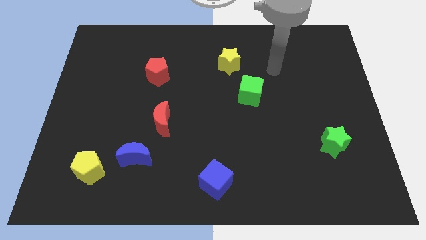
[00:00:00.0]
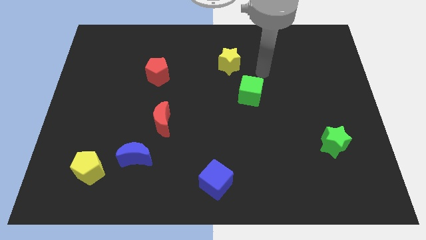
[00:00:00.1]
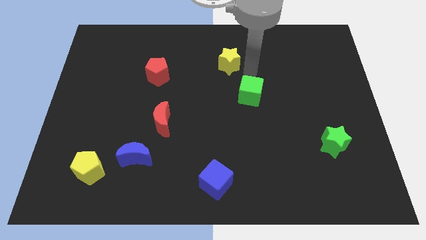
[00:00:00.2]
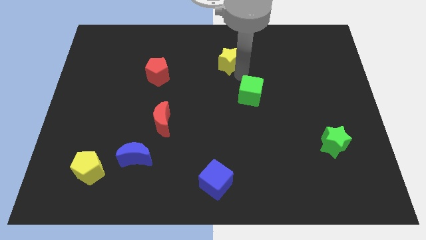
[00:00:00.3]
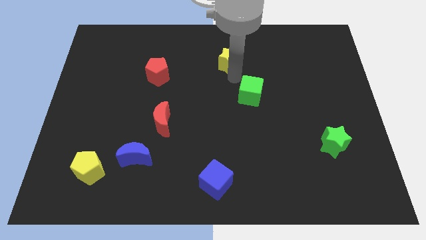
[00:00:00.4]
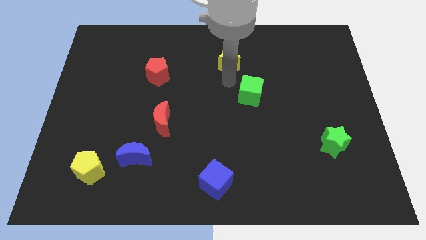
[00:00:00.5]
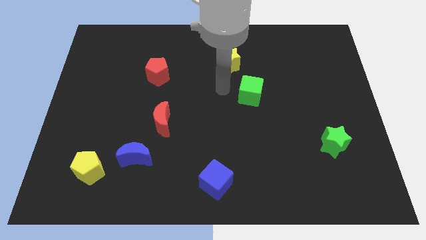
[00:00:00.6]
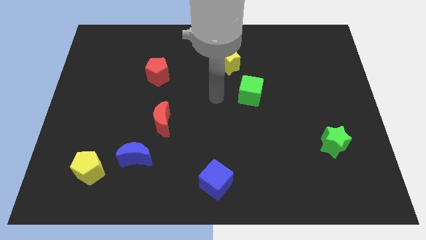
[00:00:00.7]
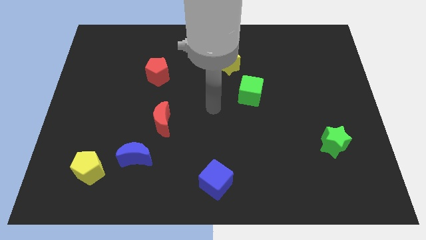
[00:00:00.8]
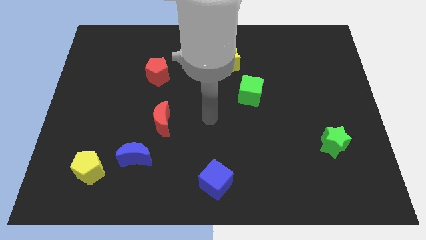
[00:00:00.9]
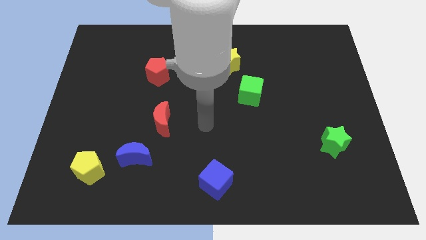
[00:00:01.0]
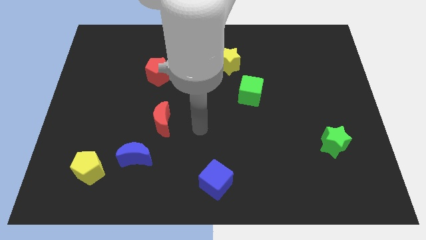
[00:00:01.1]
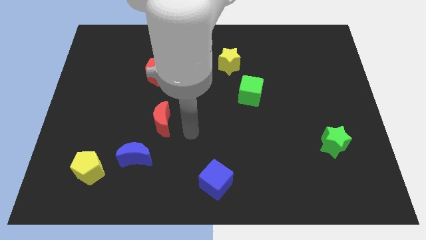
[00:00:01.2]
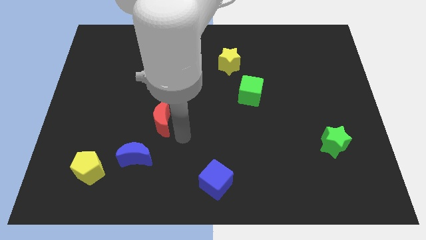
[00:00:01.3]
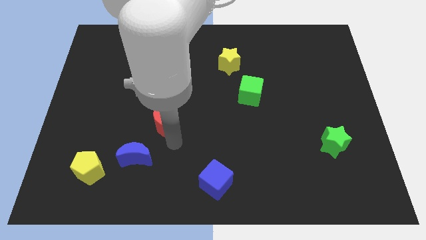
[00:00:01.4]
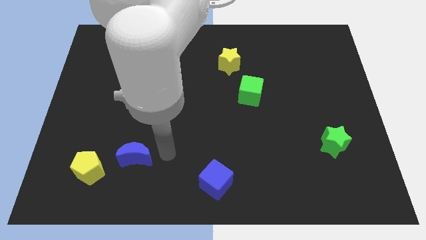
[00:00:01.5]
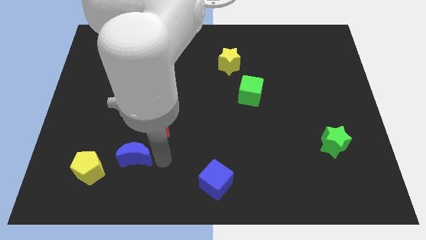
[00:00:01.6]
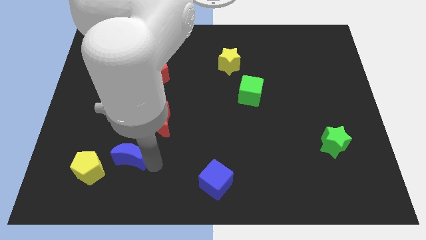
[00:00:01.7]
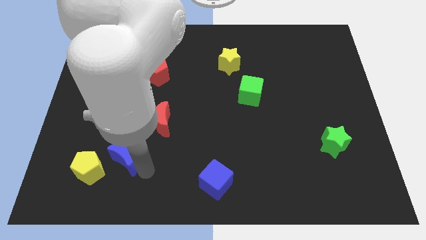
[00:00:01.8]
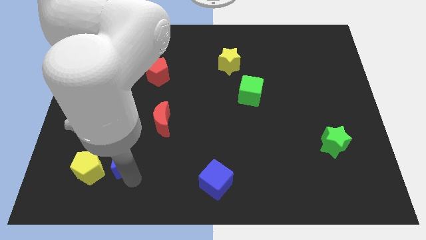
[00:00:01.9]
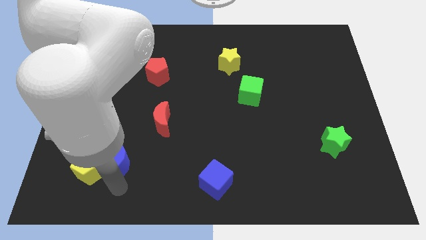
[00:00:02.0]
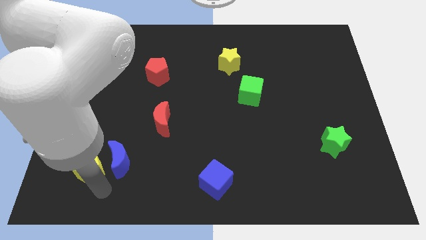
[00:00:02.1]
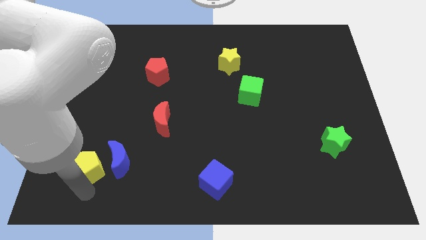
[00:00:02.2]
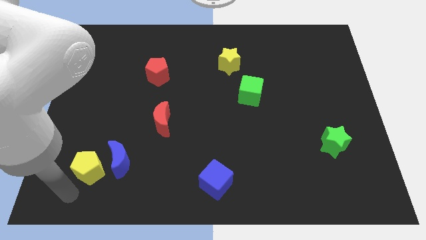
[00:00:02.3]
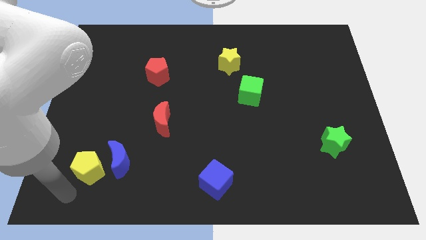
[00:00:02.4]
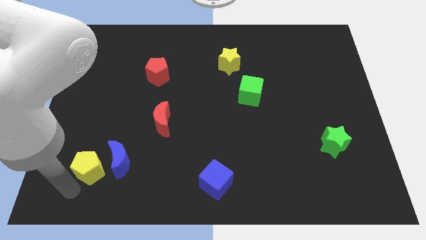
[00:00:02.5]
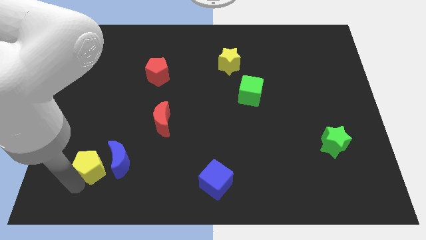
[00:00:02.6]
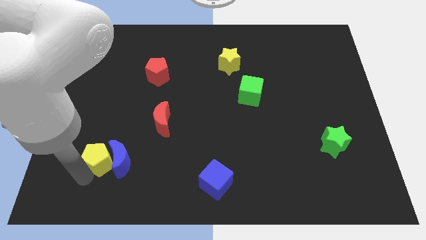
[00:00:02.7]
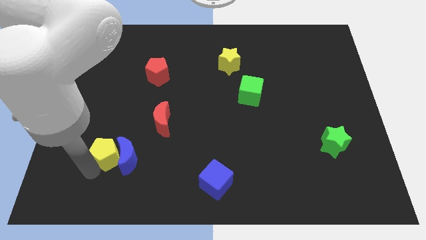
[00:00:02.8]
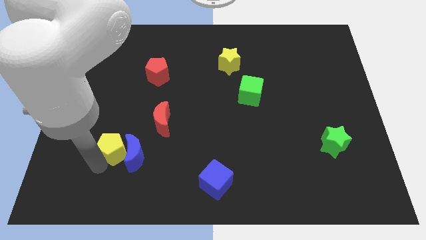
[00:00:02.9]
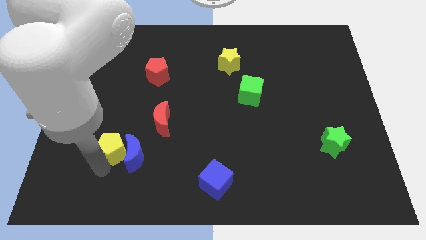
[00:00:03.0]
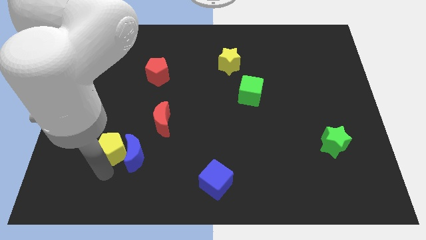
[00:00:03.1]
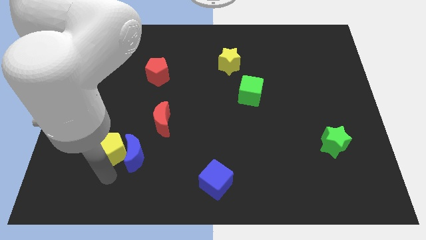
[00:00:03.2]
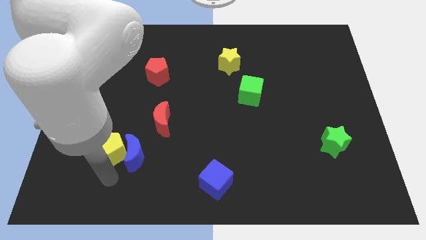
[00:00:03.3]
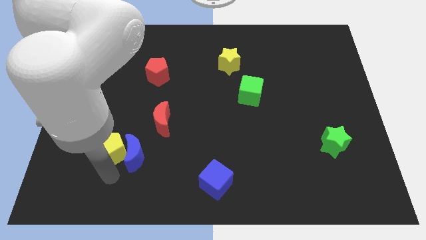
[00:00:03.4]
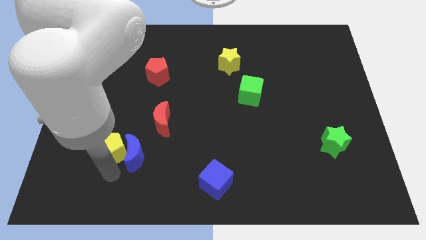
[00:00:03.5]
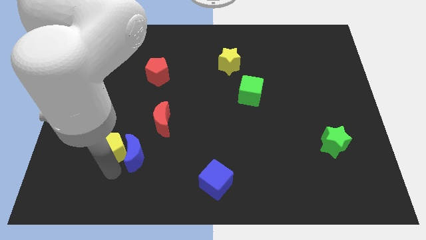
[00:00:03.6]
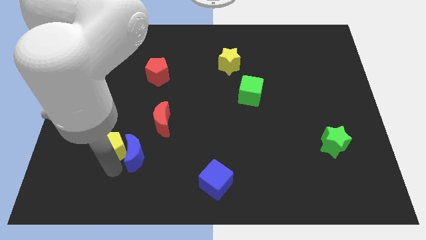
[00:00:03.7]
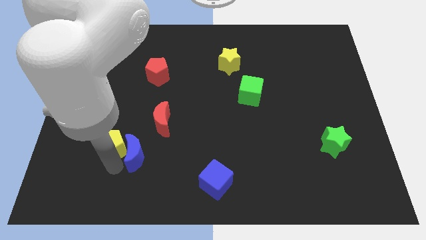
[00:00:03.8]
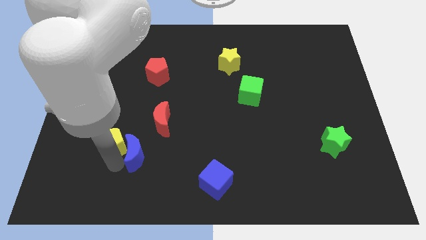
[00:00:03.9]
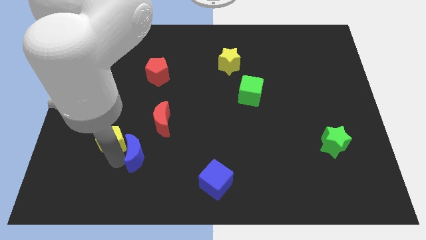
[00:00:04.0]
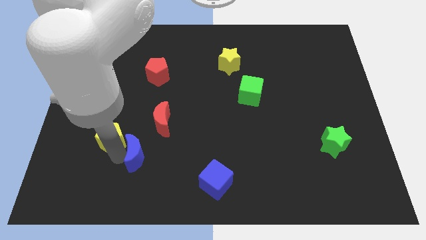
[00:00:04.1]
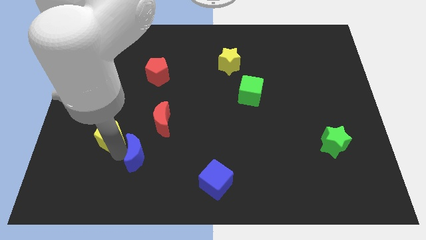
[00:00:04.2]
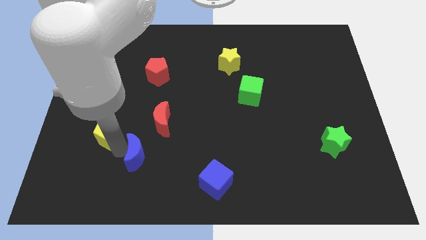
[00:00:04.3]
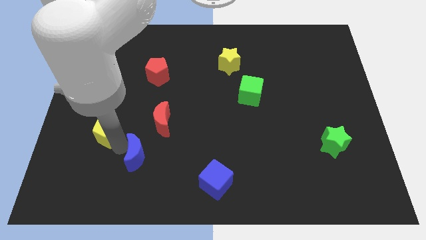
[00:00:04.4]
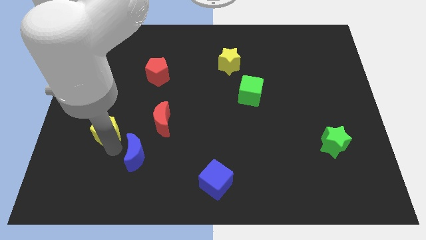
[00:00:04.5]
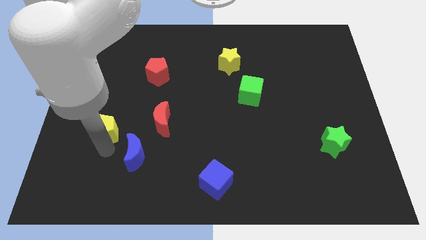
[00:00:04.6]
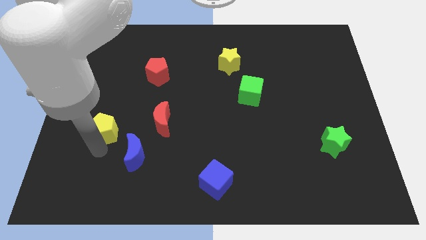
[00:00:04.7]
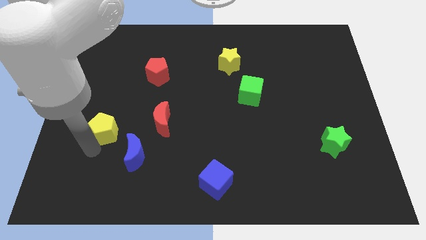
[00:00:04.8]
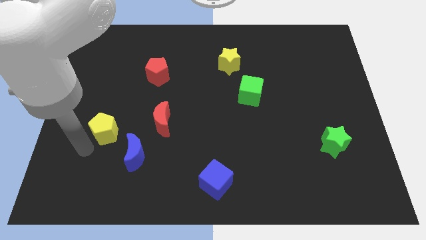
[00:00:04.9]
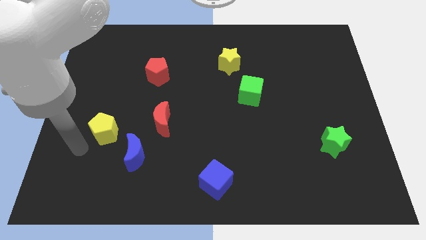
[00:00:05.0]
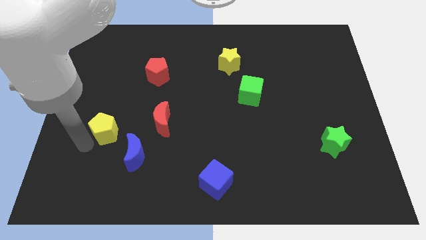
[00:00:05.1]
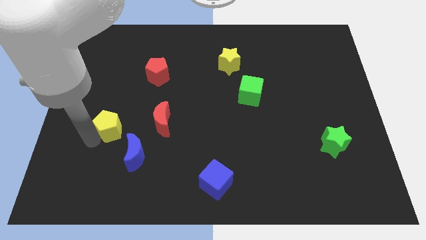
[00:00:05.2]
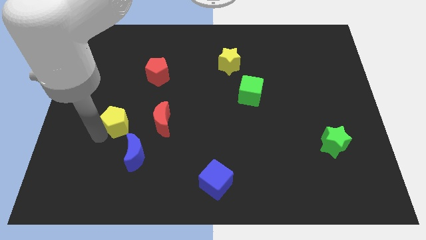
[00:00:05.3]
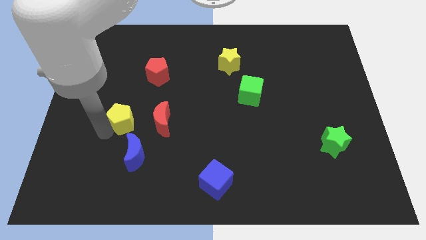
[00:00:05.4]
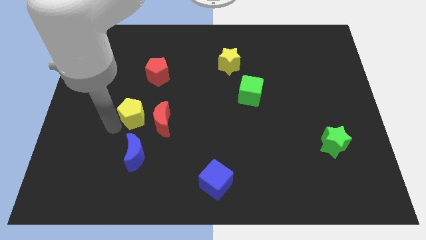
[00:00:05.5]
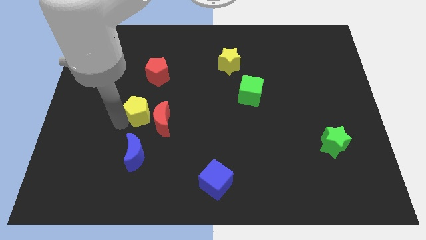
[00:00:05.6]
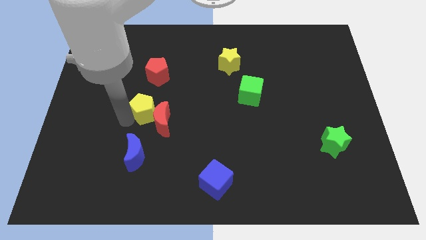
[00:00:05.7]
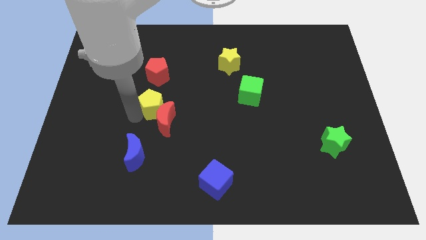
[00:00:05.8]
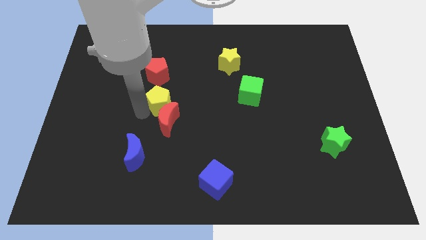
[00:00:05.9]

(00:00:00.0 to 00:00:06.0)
slide the yellow pentagon up and right

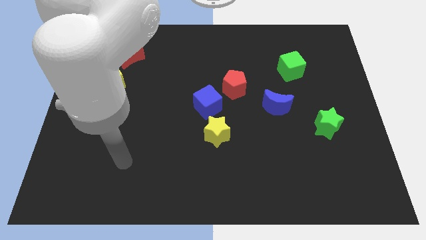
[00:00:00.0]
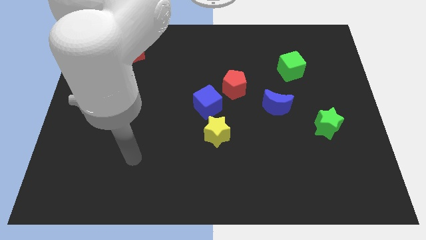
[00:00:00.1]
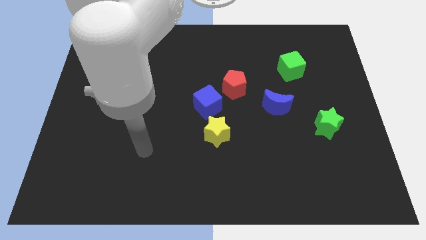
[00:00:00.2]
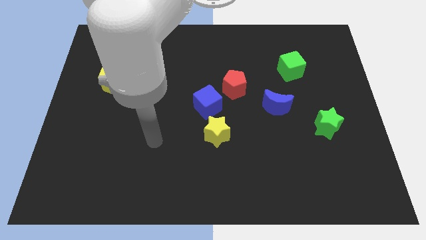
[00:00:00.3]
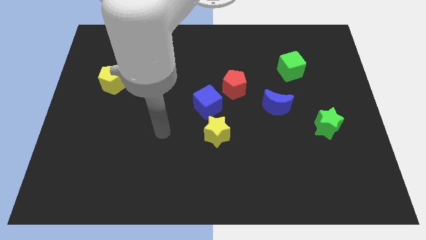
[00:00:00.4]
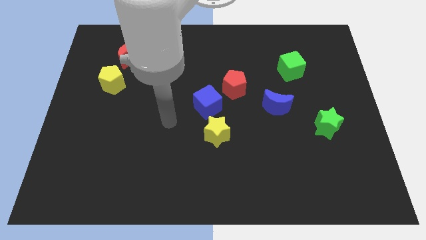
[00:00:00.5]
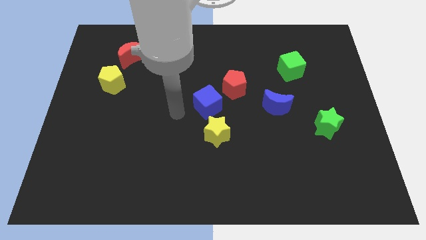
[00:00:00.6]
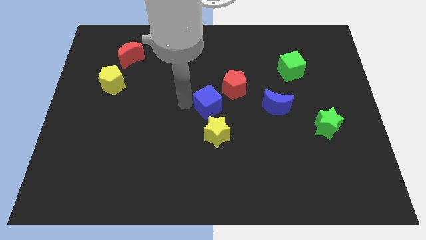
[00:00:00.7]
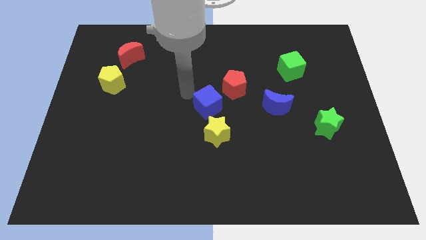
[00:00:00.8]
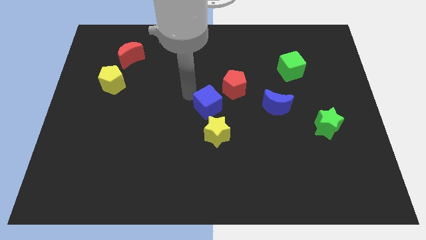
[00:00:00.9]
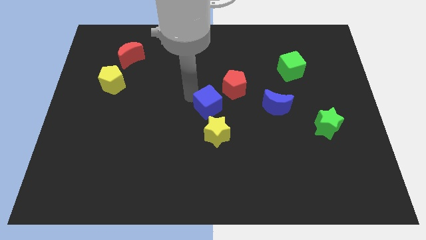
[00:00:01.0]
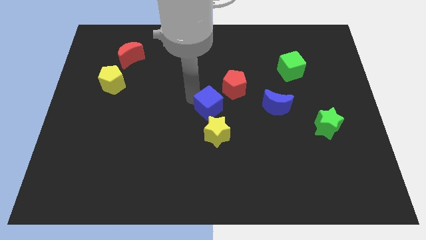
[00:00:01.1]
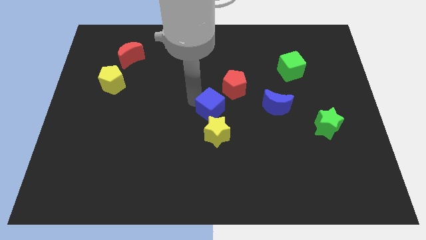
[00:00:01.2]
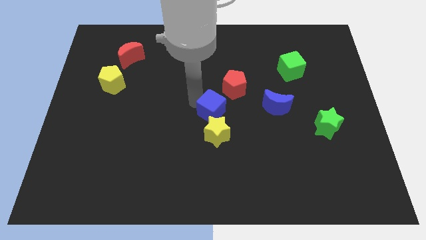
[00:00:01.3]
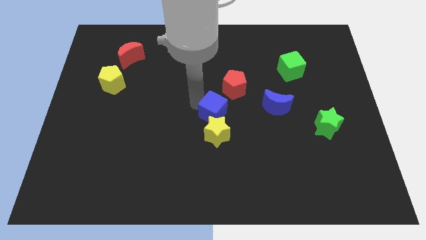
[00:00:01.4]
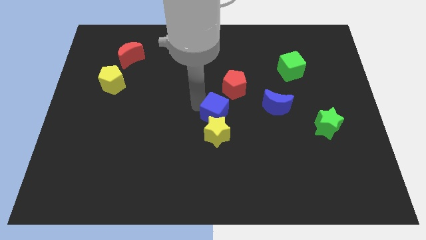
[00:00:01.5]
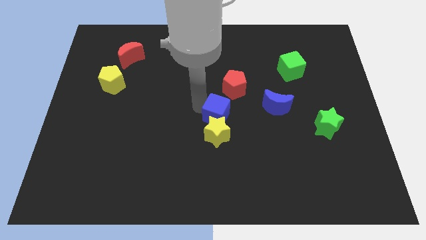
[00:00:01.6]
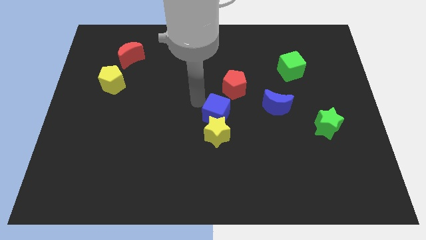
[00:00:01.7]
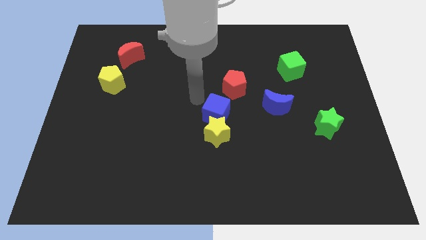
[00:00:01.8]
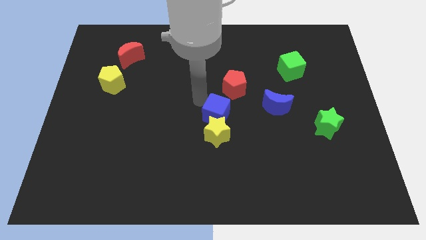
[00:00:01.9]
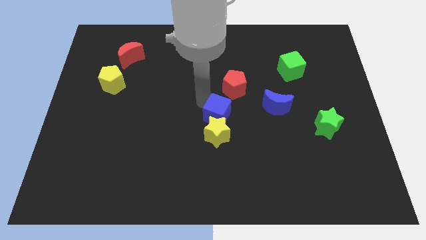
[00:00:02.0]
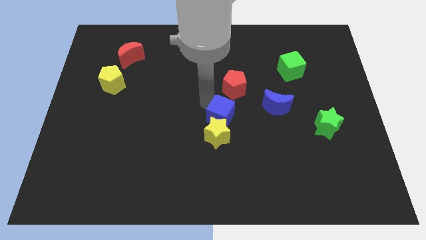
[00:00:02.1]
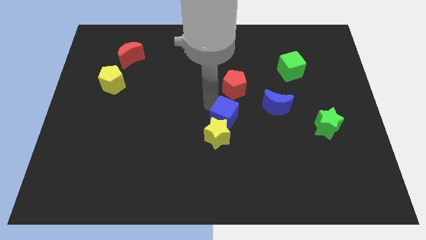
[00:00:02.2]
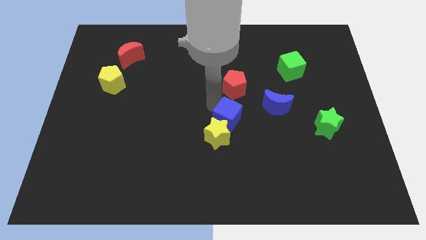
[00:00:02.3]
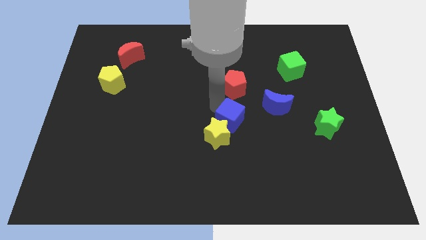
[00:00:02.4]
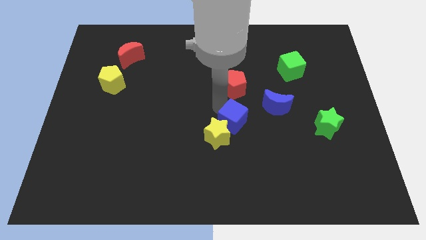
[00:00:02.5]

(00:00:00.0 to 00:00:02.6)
slightly move the blue cube downwards and right
